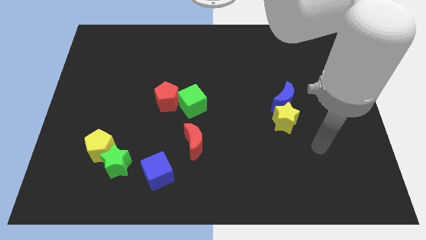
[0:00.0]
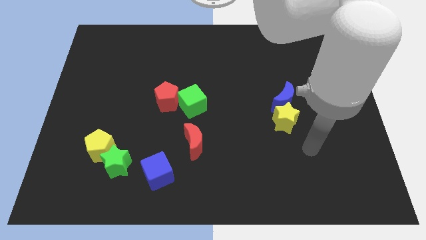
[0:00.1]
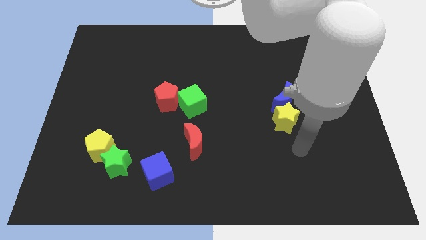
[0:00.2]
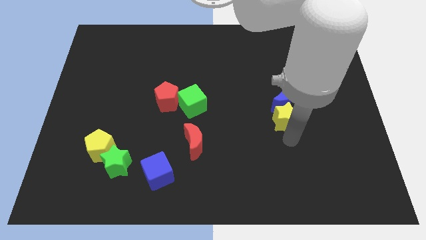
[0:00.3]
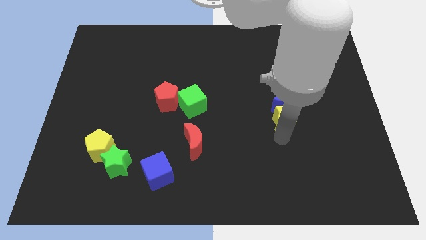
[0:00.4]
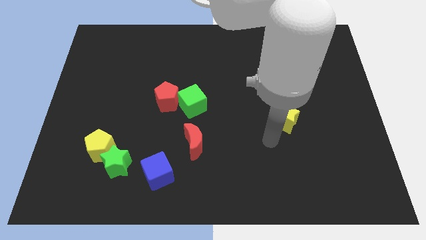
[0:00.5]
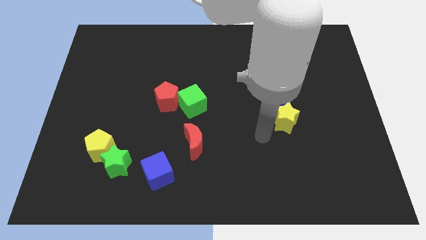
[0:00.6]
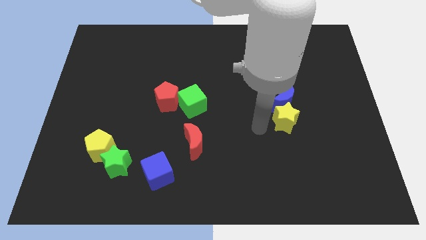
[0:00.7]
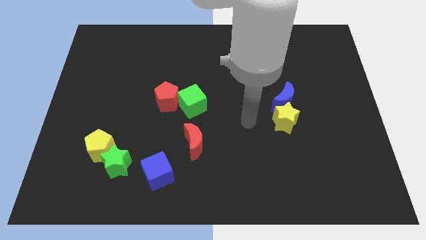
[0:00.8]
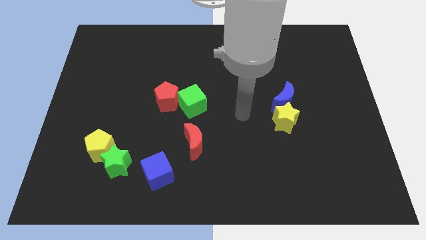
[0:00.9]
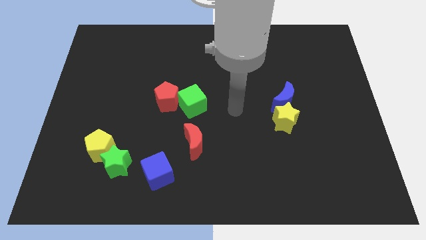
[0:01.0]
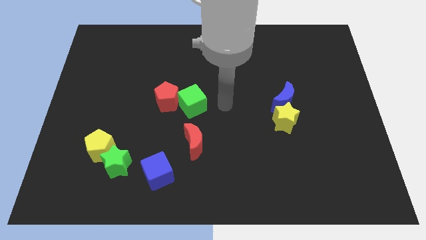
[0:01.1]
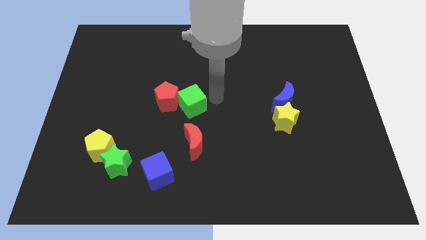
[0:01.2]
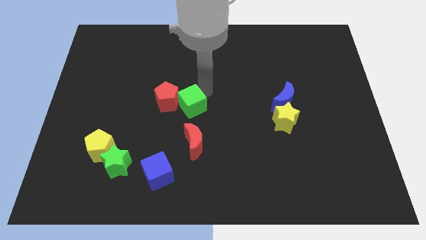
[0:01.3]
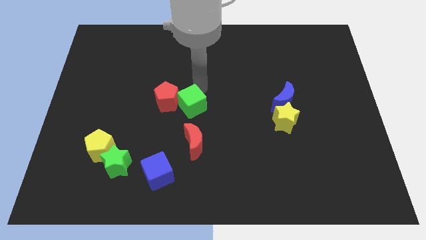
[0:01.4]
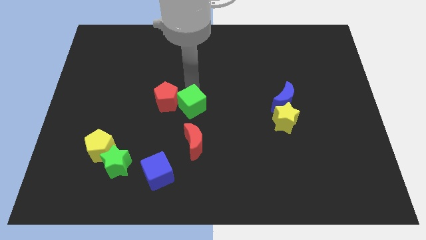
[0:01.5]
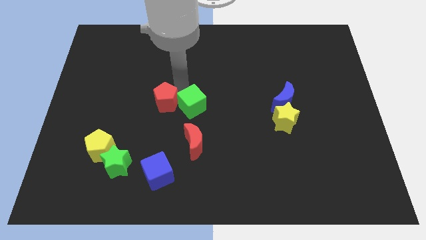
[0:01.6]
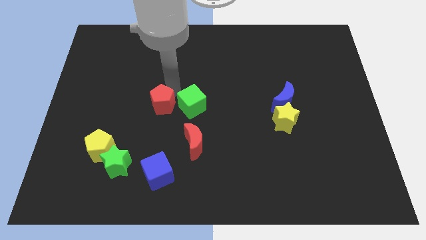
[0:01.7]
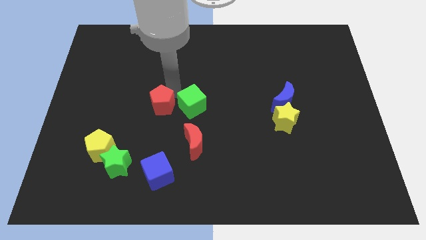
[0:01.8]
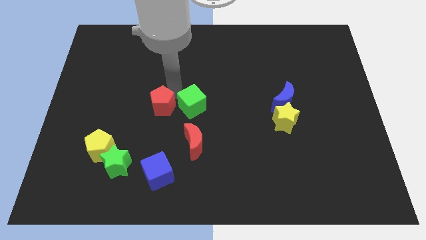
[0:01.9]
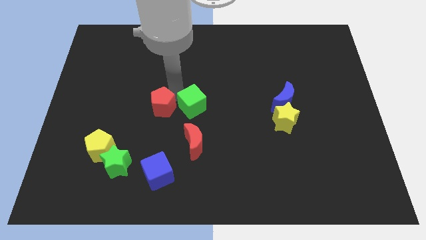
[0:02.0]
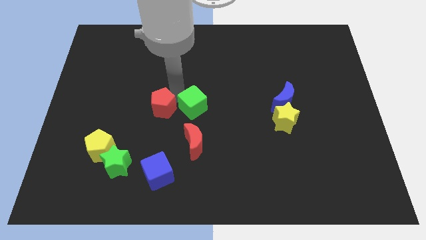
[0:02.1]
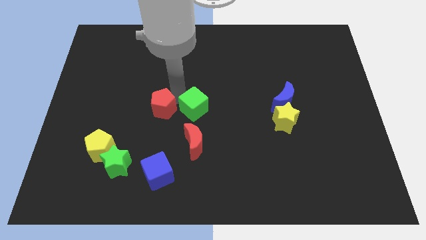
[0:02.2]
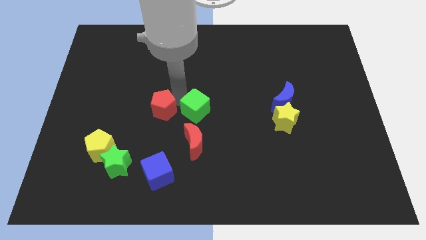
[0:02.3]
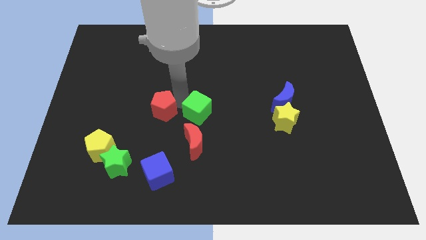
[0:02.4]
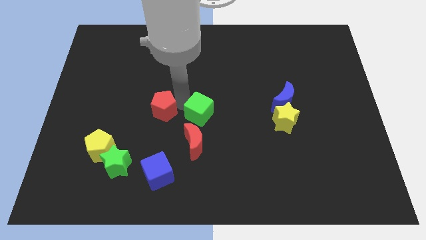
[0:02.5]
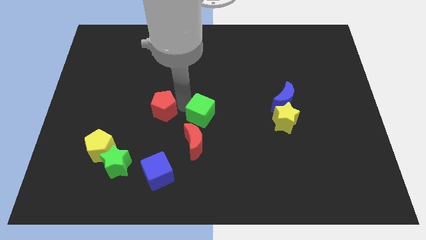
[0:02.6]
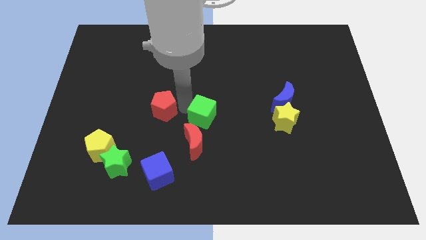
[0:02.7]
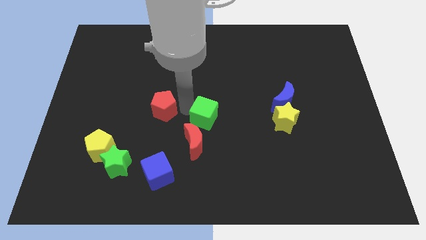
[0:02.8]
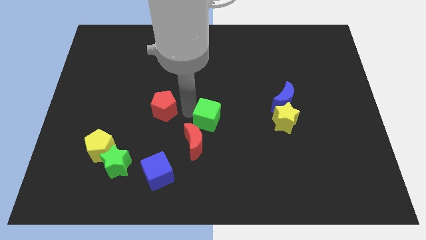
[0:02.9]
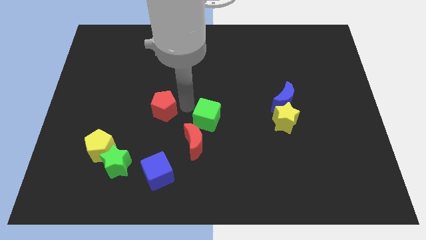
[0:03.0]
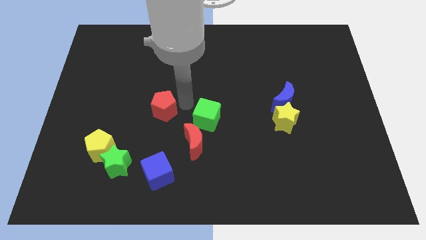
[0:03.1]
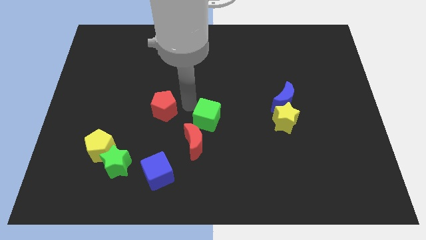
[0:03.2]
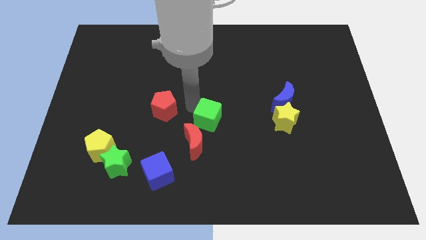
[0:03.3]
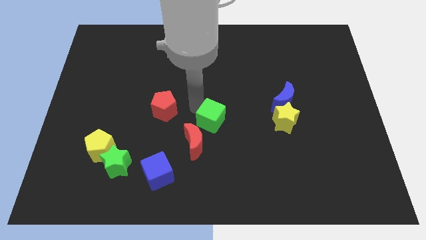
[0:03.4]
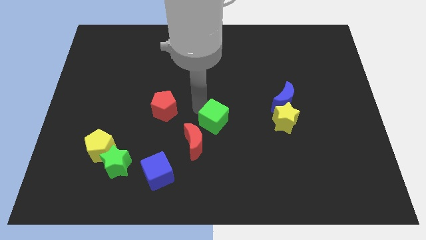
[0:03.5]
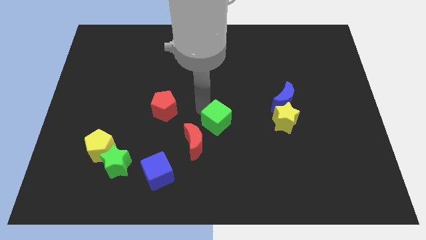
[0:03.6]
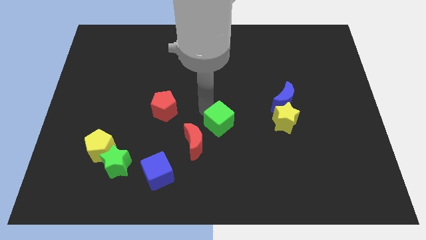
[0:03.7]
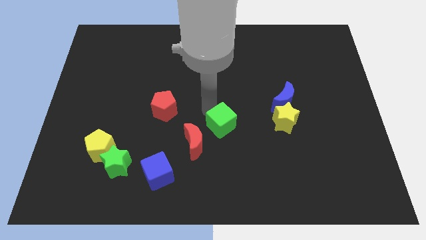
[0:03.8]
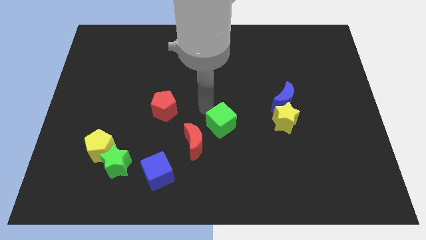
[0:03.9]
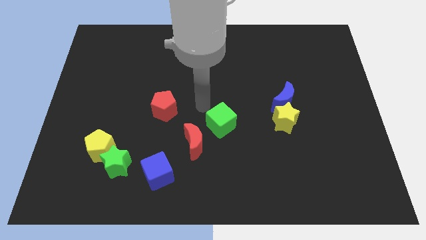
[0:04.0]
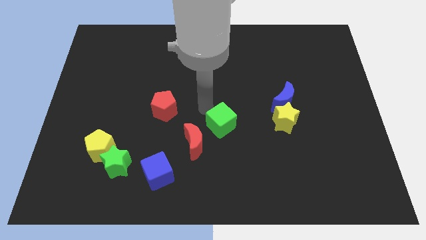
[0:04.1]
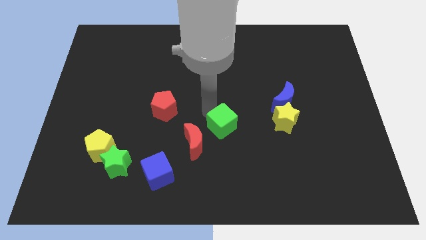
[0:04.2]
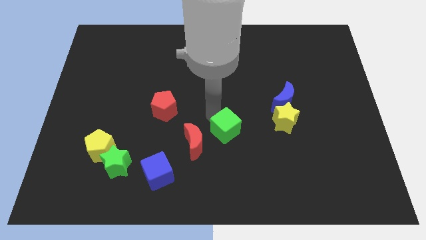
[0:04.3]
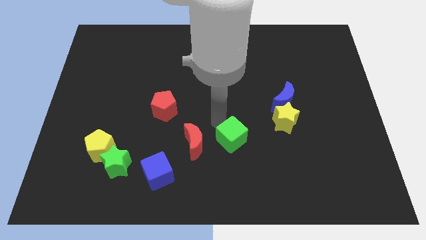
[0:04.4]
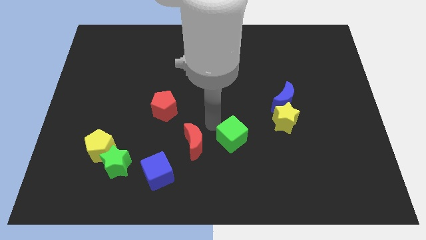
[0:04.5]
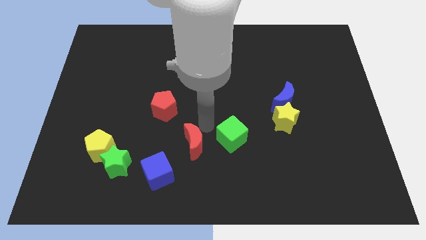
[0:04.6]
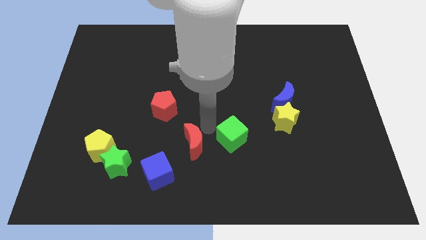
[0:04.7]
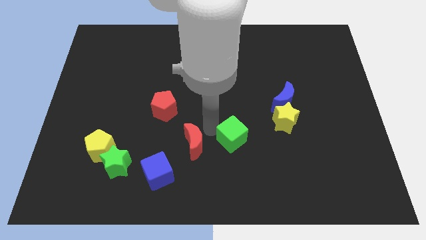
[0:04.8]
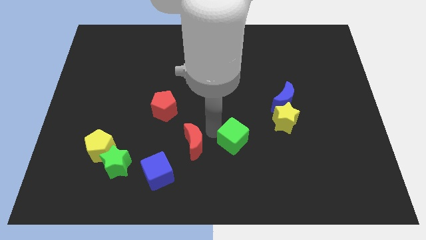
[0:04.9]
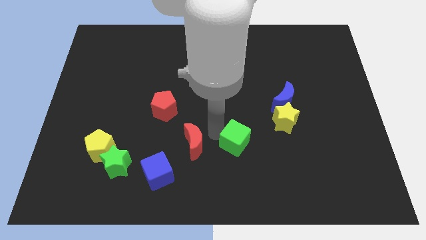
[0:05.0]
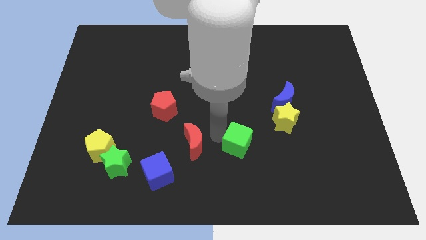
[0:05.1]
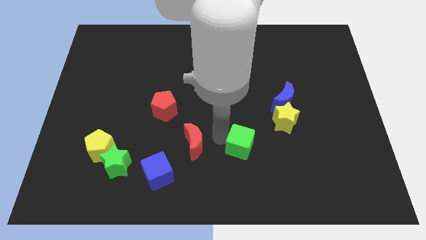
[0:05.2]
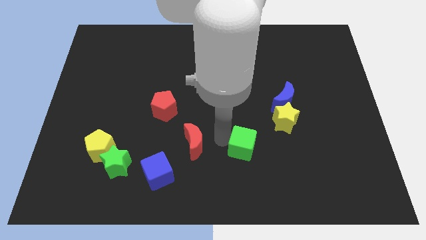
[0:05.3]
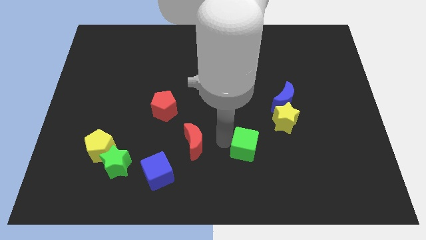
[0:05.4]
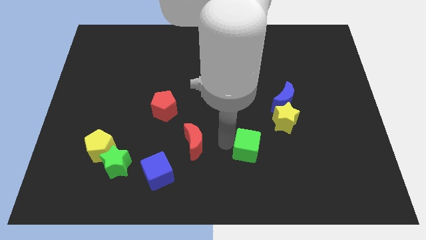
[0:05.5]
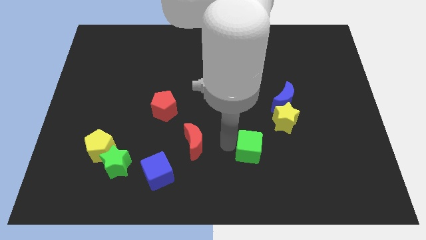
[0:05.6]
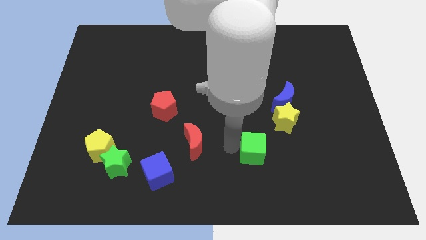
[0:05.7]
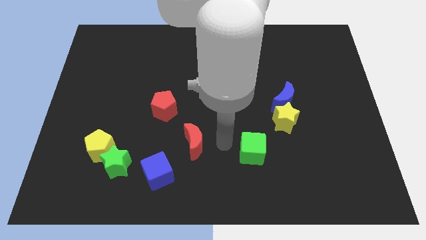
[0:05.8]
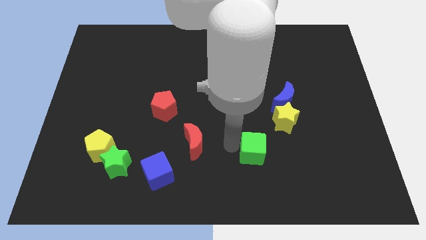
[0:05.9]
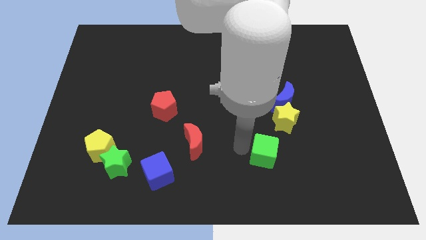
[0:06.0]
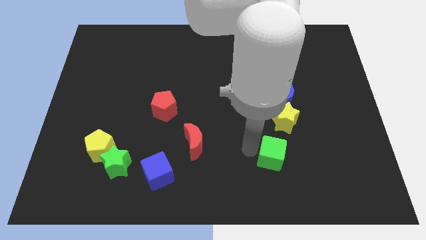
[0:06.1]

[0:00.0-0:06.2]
push the green cube to the bottom side of the yellow star

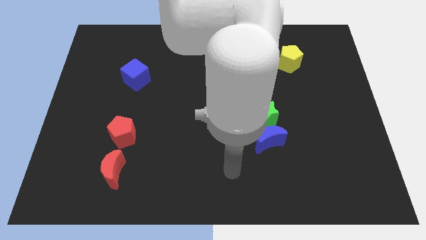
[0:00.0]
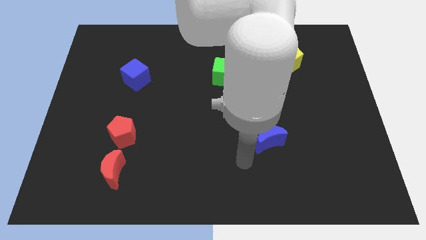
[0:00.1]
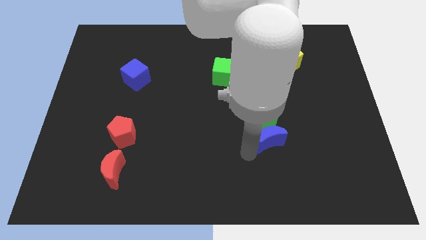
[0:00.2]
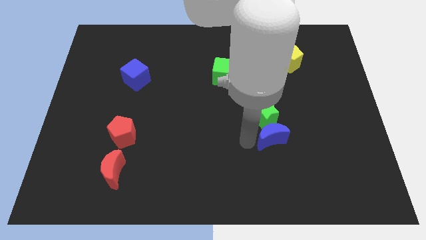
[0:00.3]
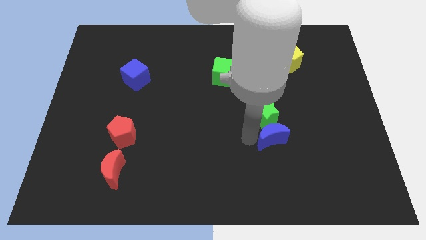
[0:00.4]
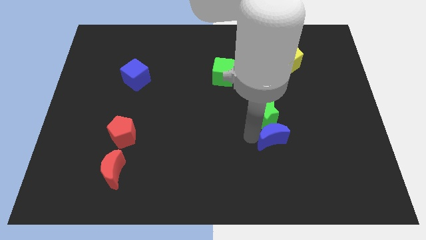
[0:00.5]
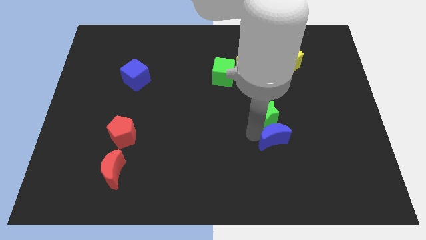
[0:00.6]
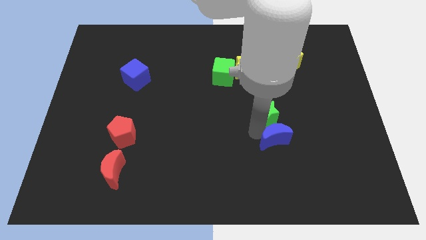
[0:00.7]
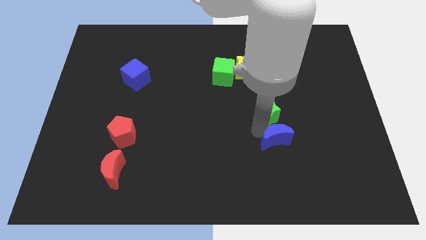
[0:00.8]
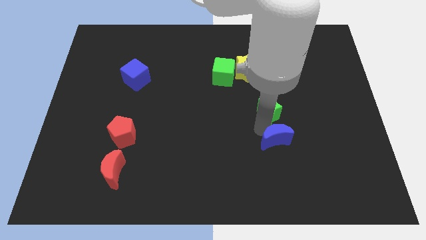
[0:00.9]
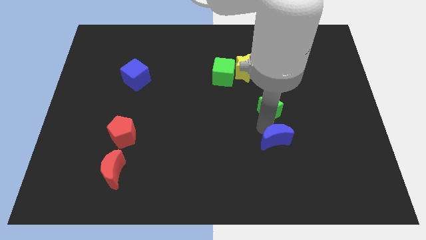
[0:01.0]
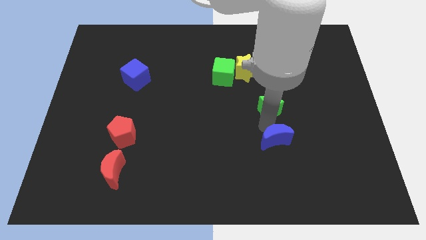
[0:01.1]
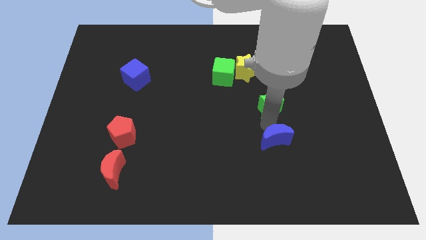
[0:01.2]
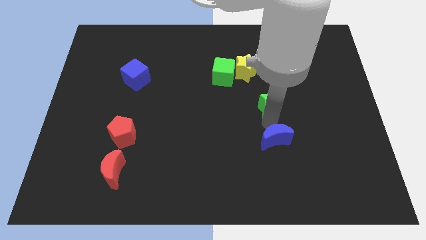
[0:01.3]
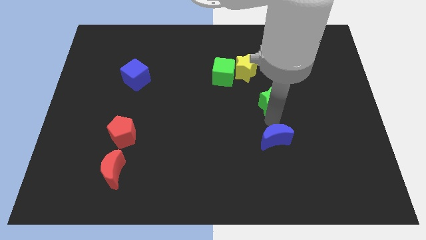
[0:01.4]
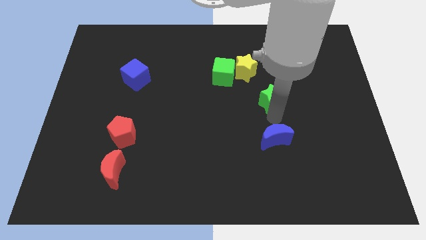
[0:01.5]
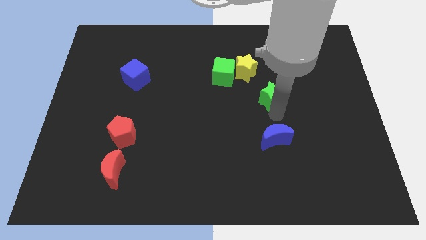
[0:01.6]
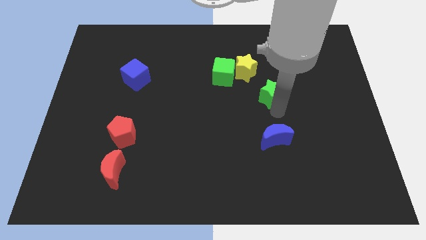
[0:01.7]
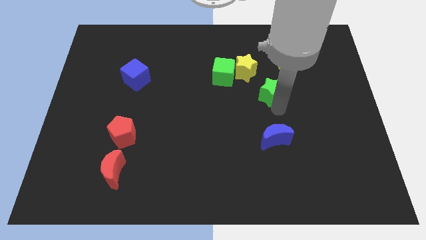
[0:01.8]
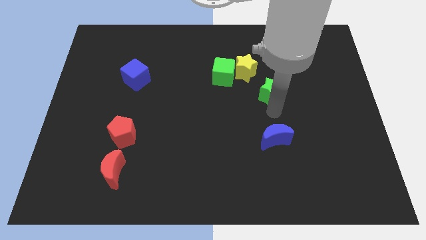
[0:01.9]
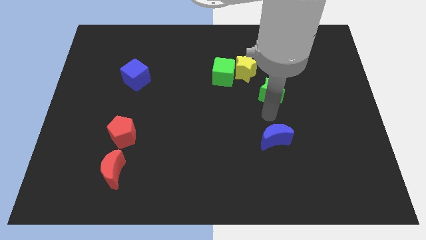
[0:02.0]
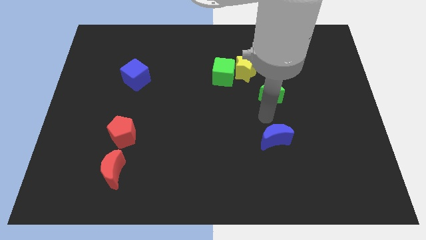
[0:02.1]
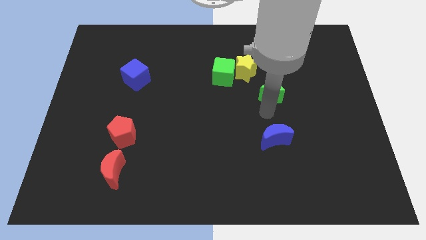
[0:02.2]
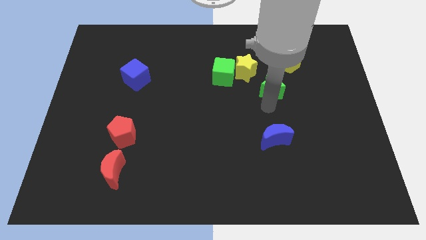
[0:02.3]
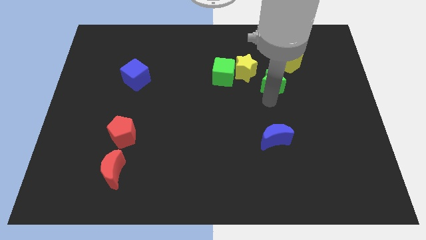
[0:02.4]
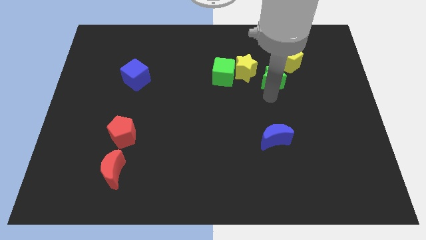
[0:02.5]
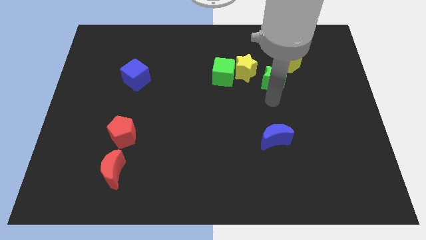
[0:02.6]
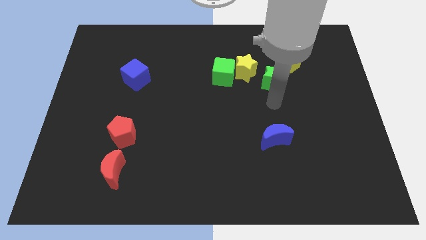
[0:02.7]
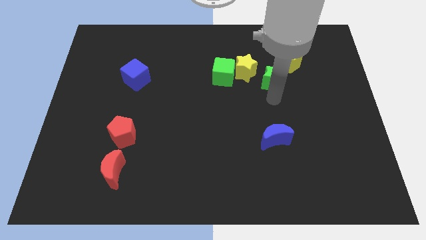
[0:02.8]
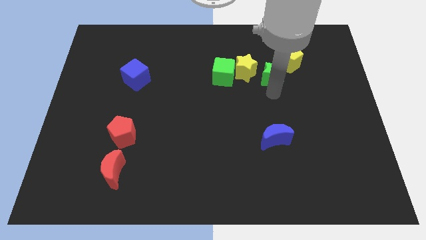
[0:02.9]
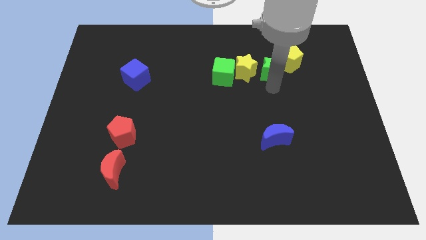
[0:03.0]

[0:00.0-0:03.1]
put the green star to the left of the yellow pentagon
